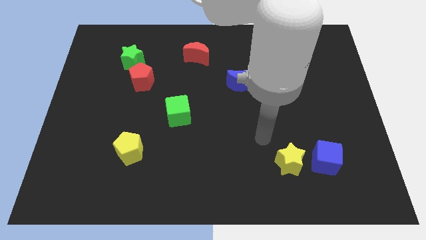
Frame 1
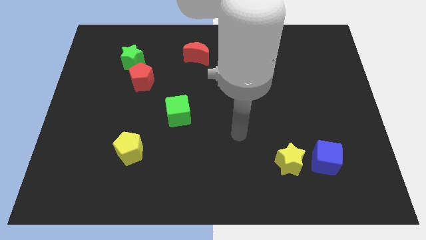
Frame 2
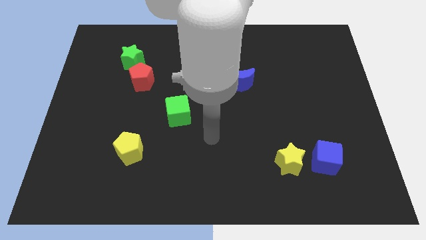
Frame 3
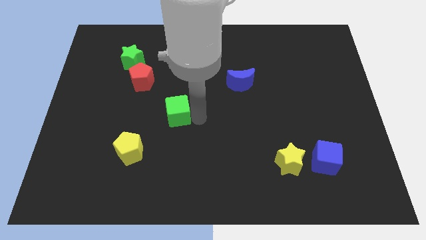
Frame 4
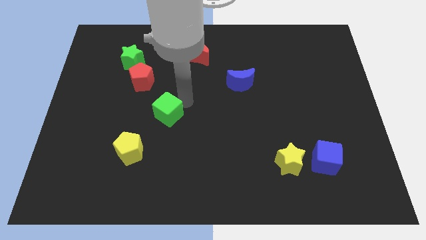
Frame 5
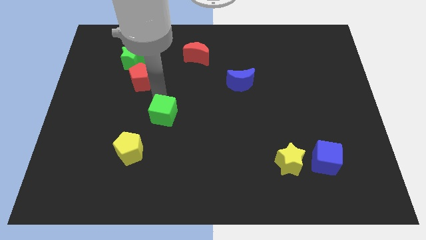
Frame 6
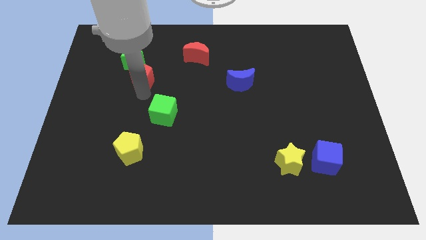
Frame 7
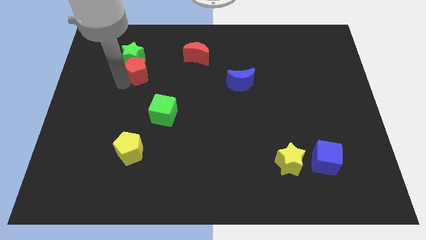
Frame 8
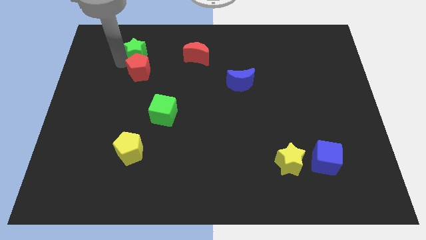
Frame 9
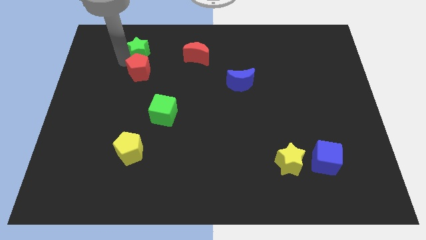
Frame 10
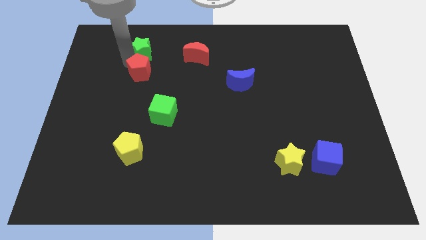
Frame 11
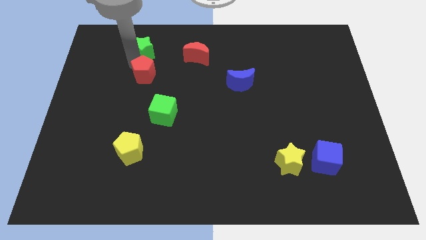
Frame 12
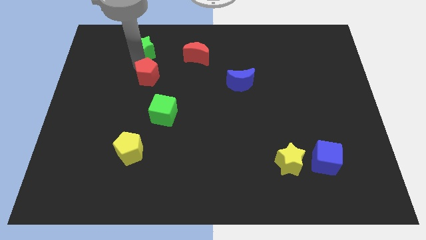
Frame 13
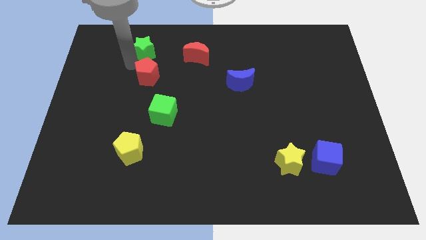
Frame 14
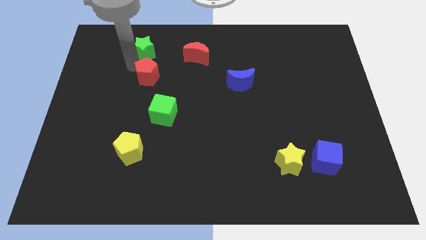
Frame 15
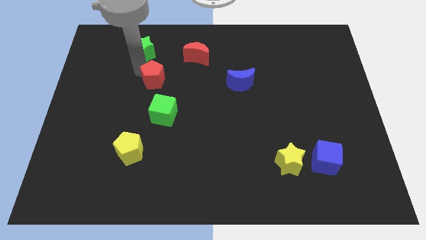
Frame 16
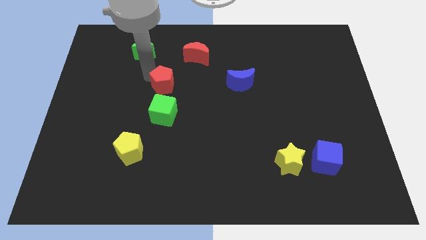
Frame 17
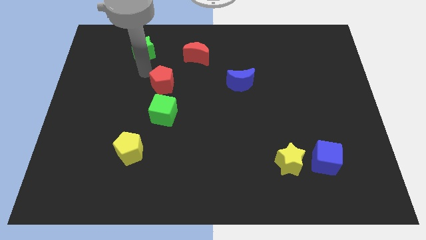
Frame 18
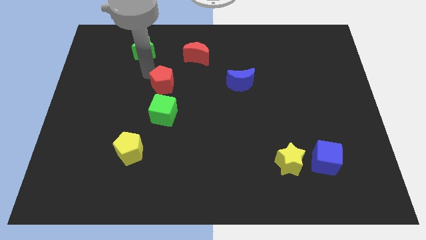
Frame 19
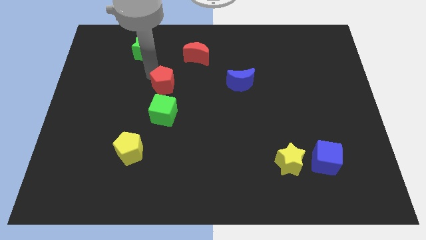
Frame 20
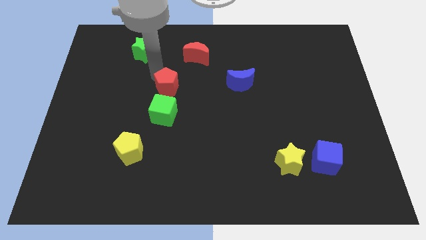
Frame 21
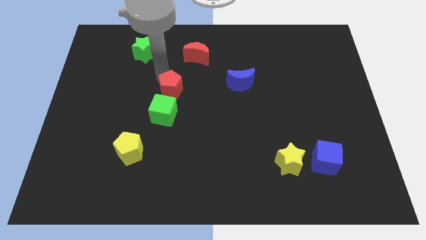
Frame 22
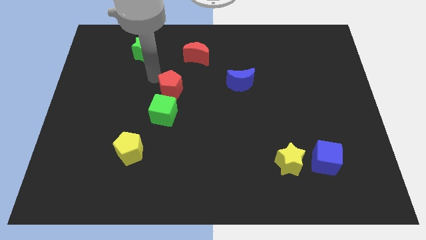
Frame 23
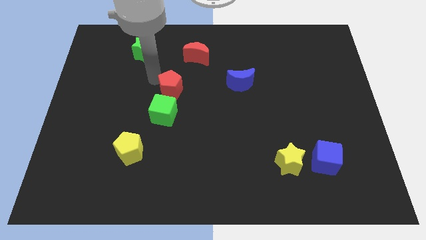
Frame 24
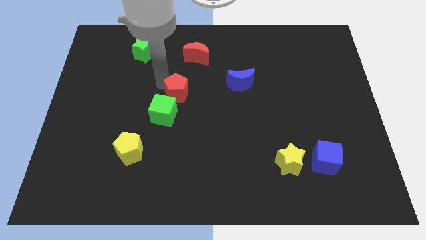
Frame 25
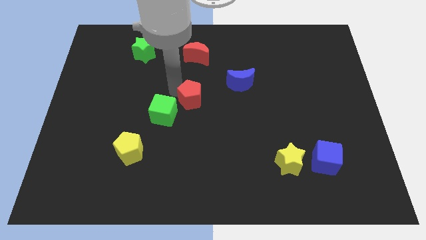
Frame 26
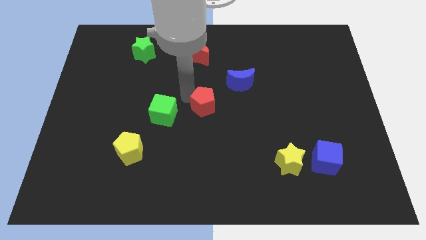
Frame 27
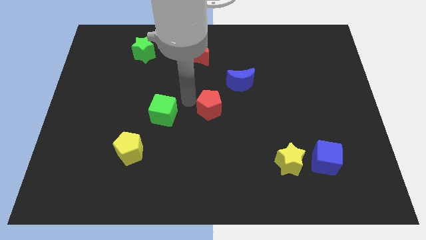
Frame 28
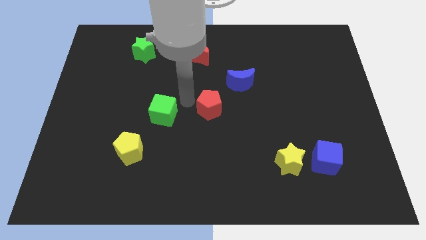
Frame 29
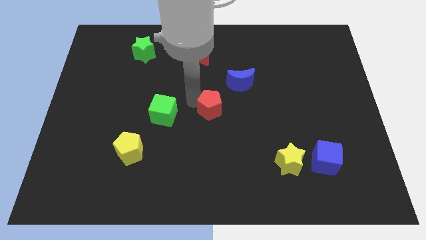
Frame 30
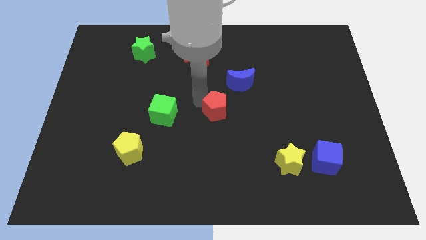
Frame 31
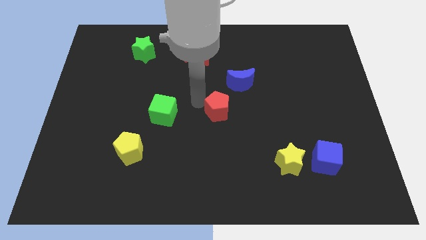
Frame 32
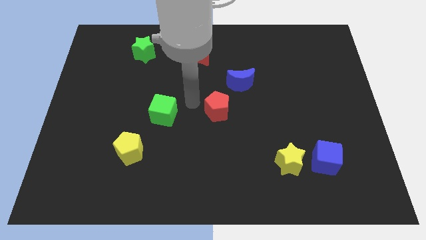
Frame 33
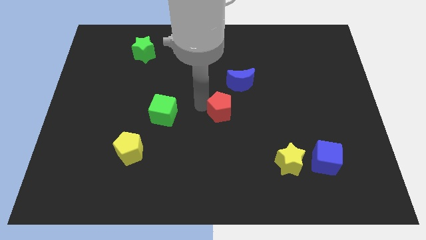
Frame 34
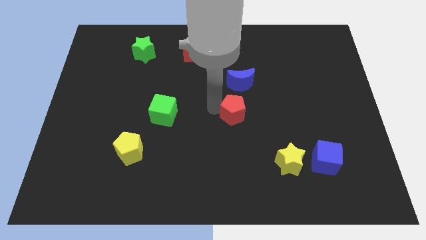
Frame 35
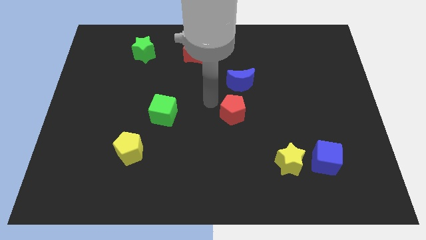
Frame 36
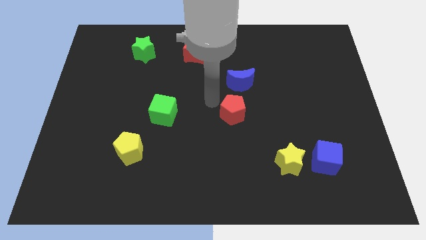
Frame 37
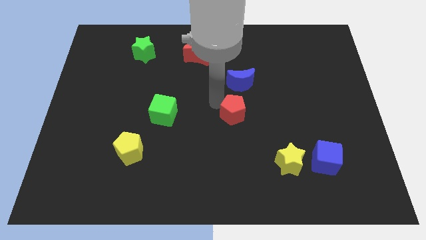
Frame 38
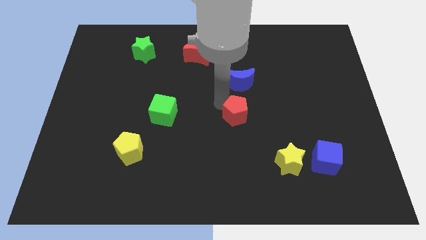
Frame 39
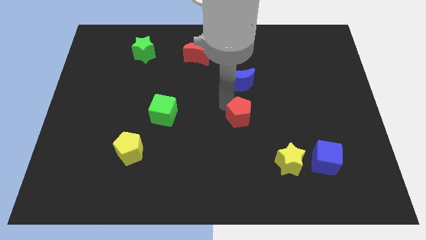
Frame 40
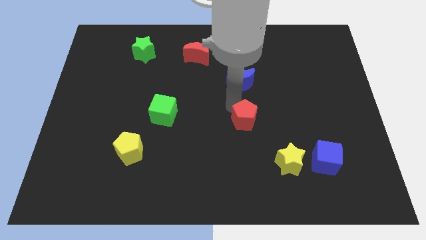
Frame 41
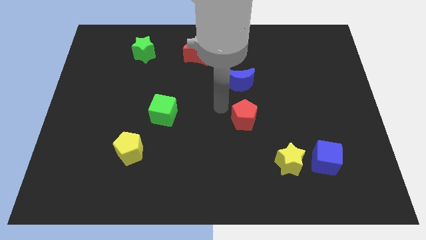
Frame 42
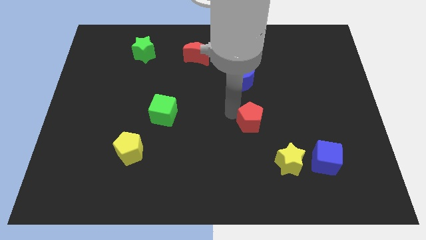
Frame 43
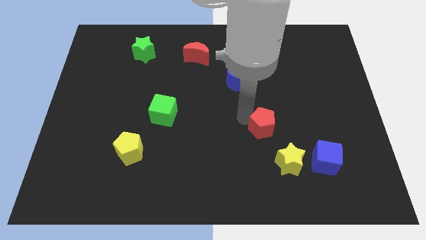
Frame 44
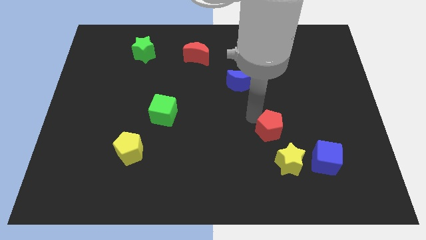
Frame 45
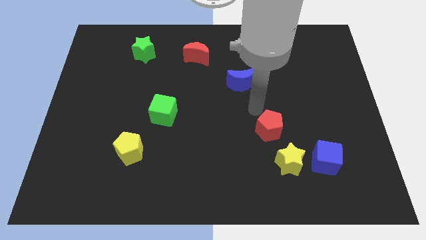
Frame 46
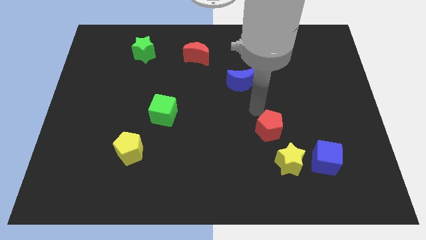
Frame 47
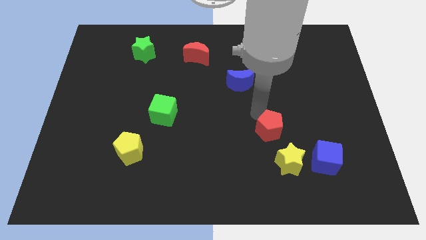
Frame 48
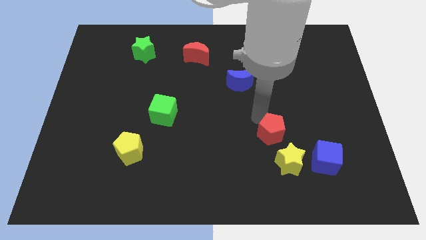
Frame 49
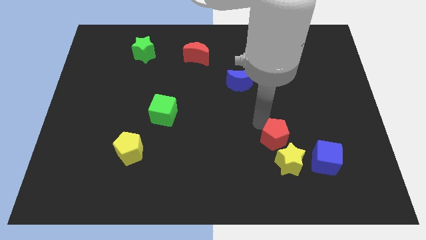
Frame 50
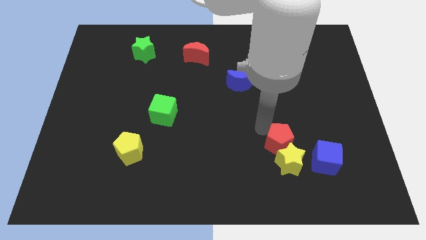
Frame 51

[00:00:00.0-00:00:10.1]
put the red pentagon close to the yellow star

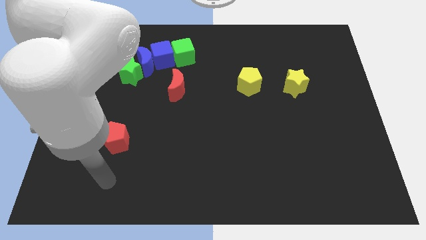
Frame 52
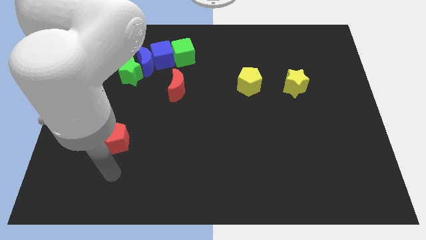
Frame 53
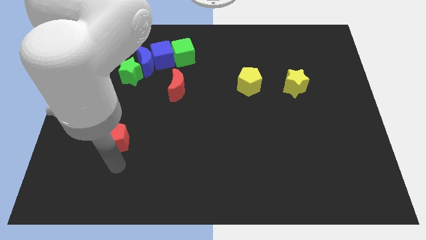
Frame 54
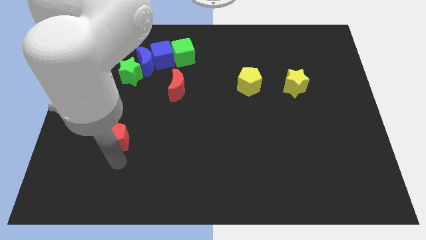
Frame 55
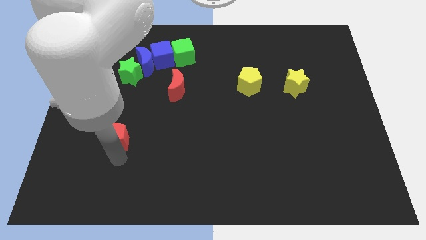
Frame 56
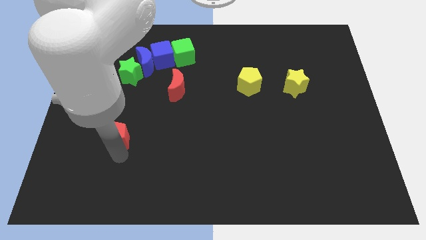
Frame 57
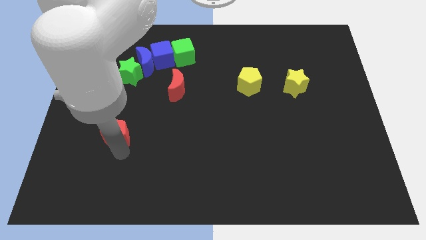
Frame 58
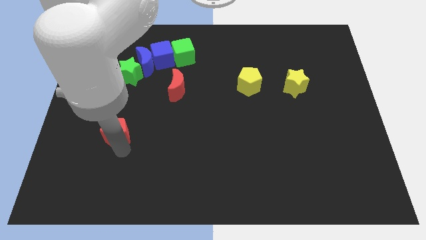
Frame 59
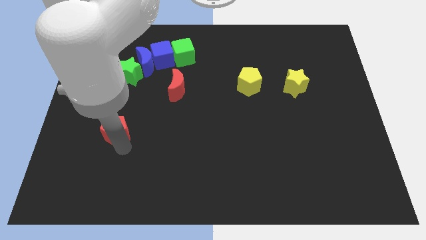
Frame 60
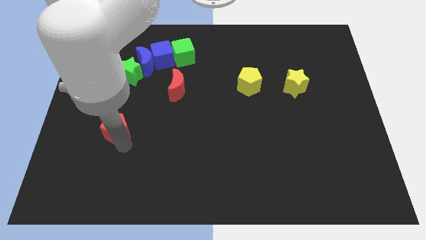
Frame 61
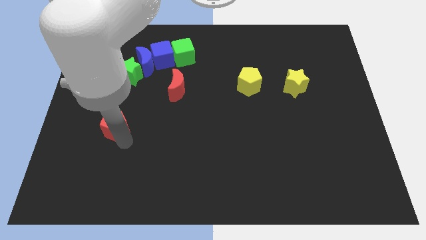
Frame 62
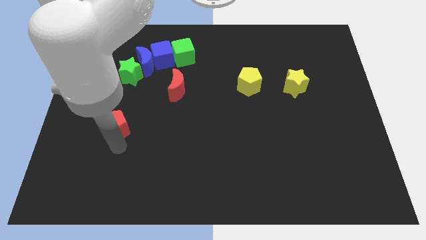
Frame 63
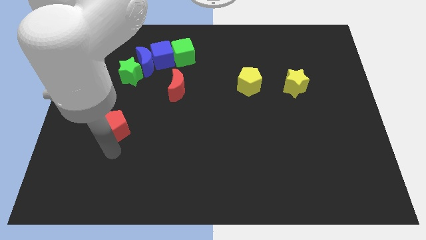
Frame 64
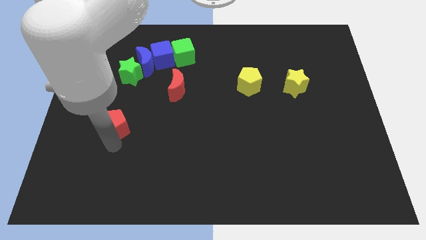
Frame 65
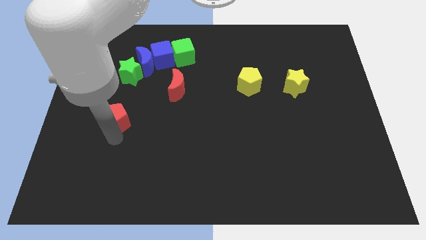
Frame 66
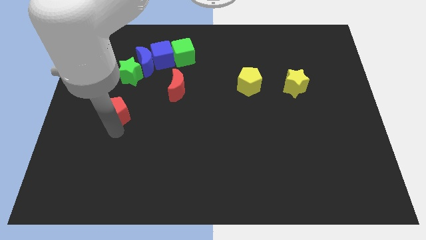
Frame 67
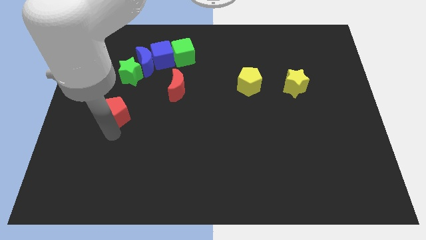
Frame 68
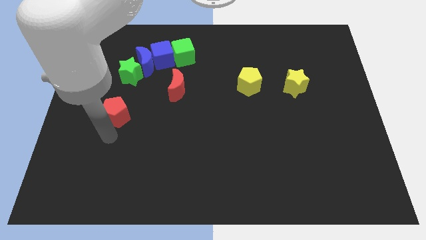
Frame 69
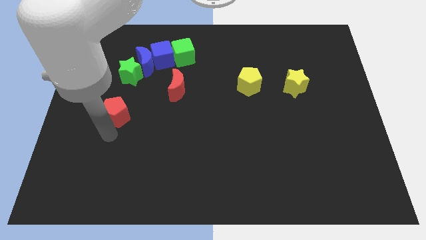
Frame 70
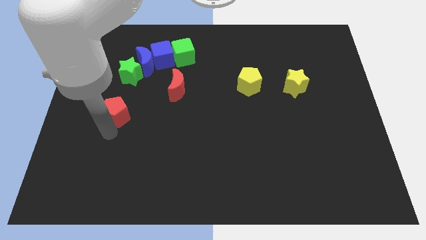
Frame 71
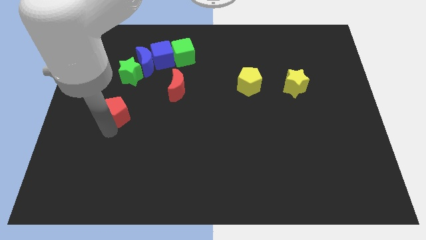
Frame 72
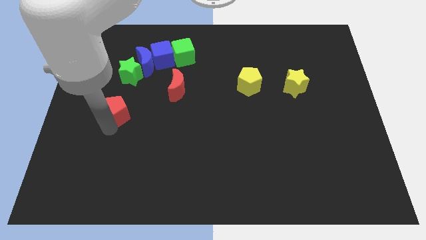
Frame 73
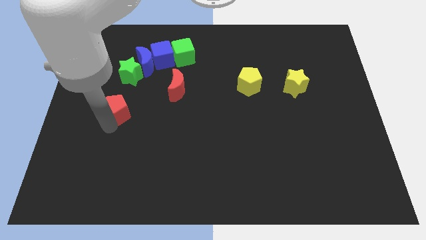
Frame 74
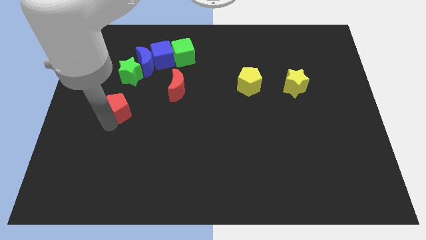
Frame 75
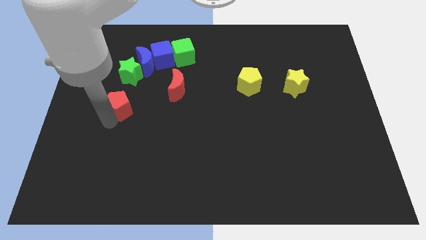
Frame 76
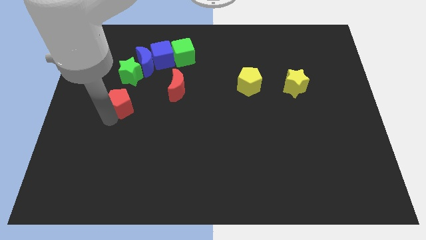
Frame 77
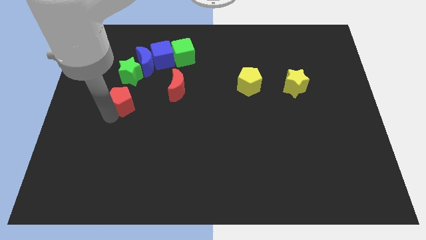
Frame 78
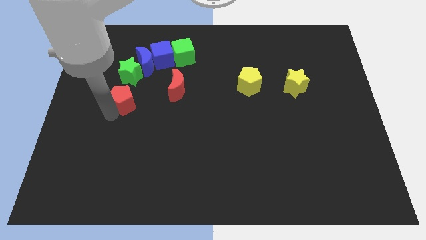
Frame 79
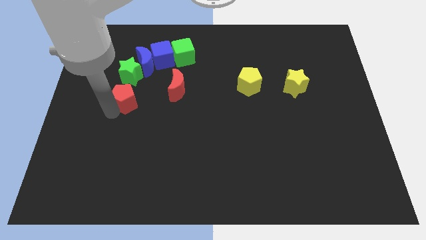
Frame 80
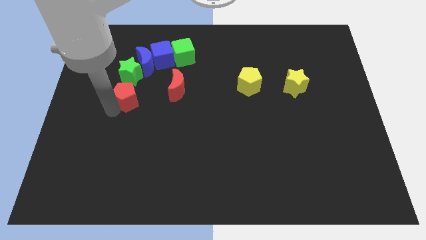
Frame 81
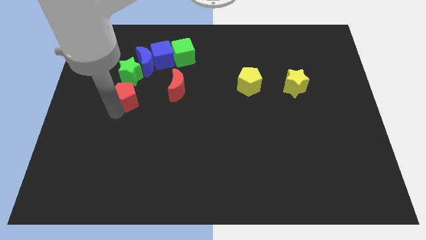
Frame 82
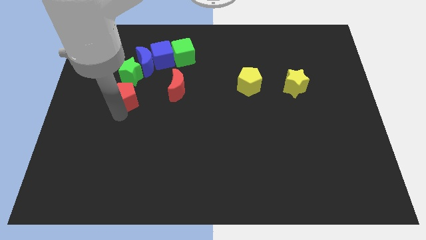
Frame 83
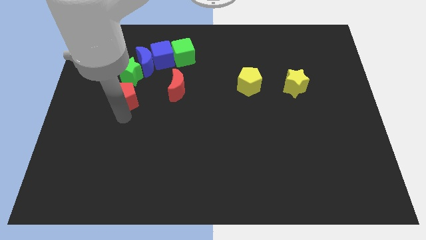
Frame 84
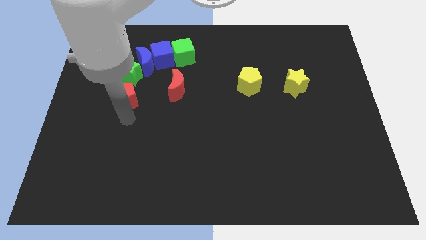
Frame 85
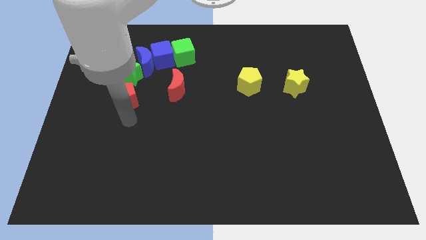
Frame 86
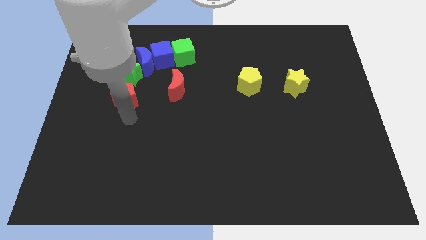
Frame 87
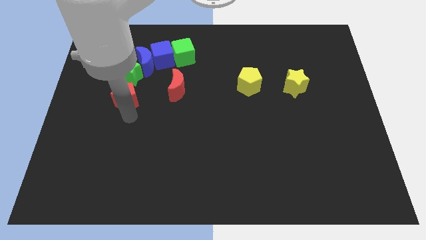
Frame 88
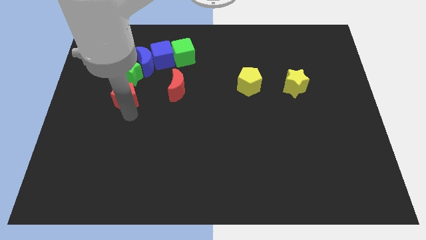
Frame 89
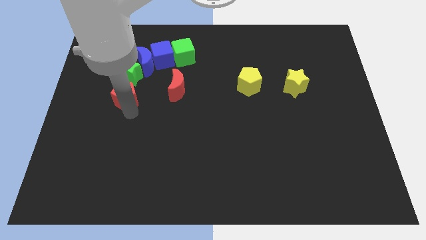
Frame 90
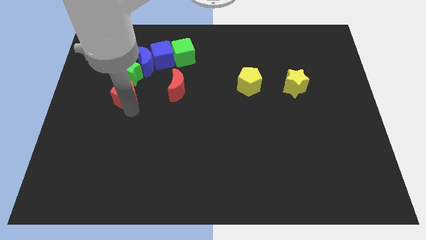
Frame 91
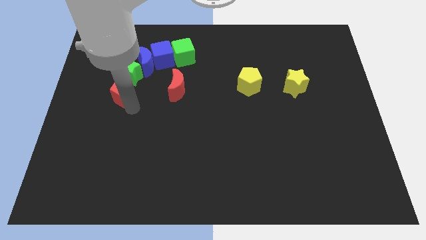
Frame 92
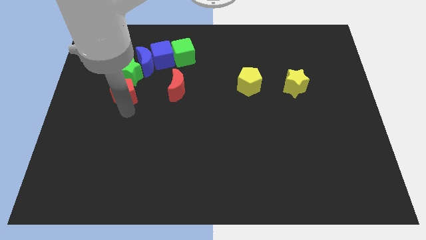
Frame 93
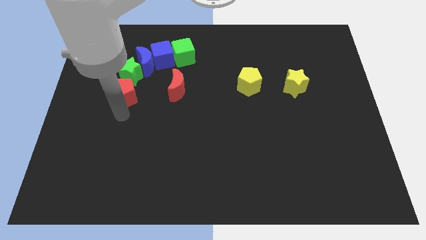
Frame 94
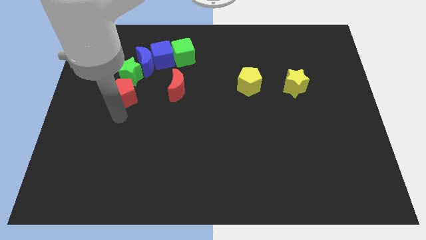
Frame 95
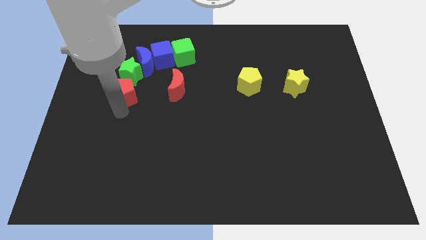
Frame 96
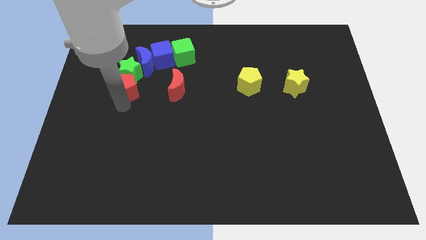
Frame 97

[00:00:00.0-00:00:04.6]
put the red pentagon towards the green star
